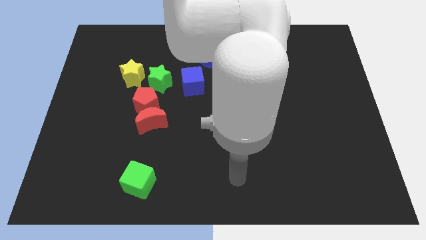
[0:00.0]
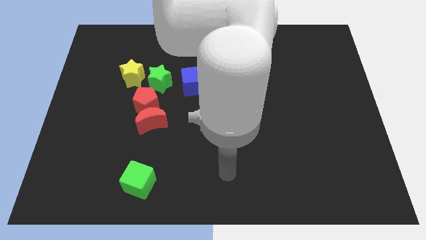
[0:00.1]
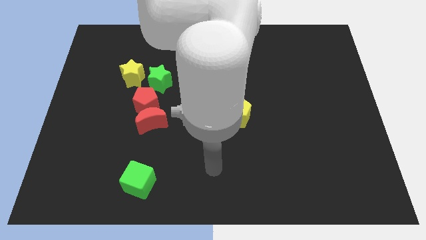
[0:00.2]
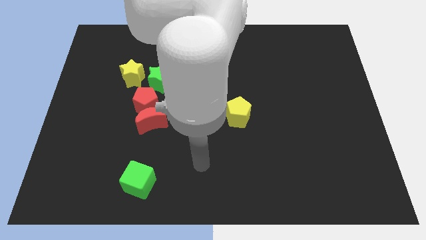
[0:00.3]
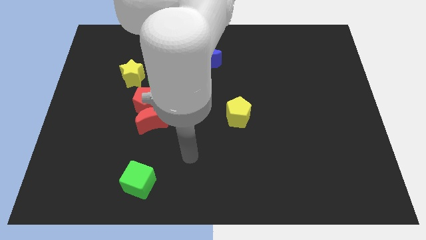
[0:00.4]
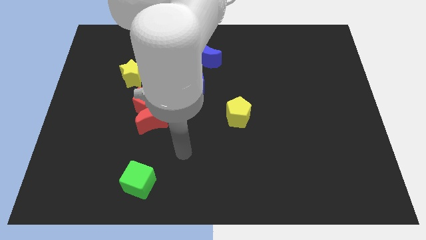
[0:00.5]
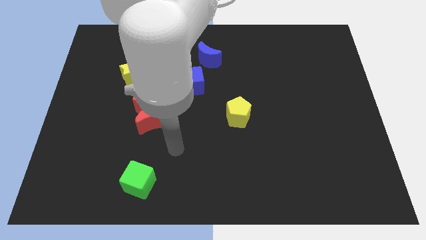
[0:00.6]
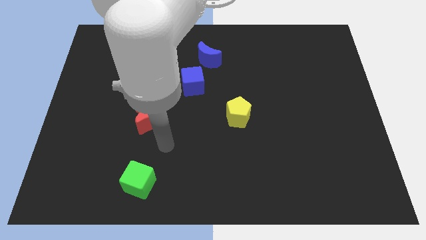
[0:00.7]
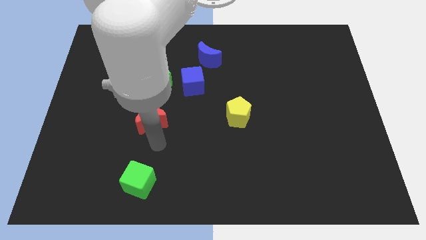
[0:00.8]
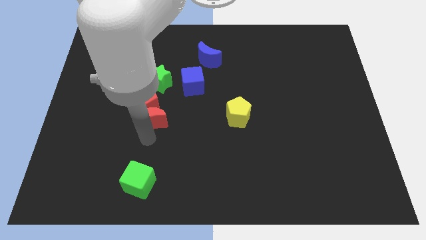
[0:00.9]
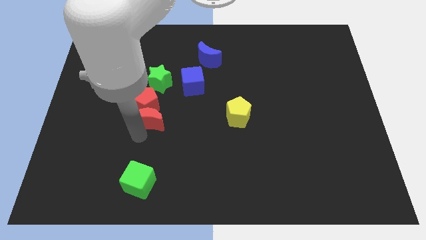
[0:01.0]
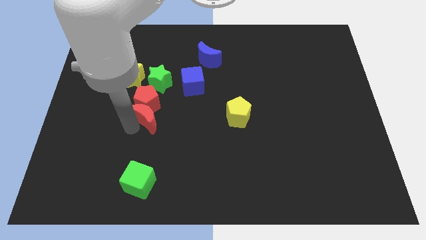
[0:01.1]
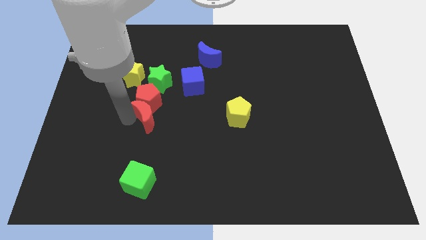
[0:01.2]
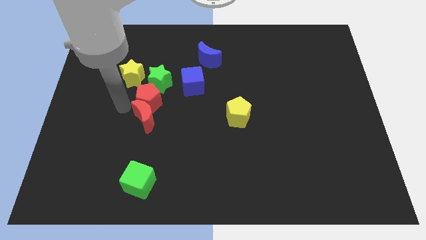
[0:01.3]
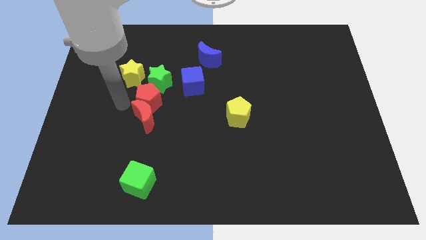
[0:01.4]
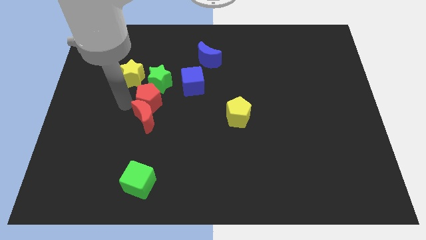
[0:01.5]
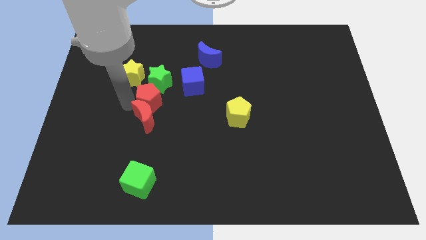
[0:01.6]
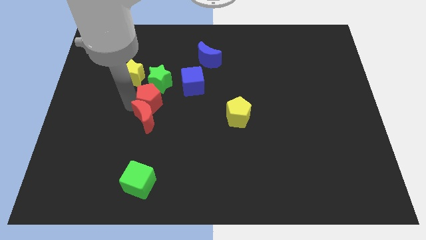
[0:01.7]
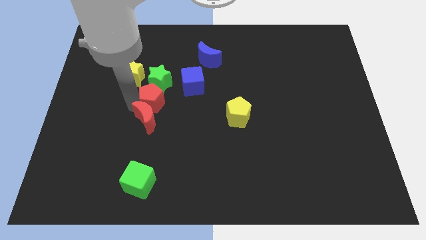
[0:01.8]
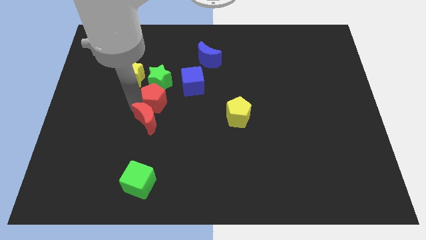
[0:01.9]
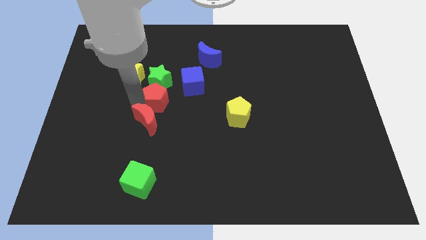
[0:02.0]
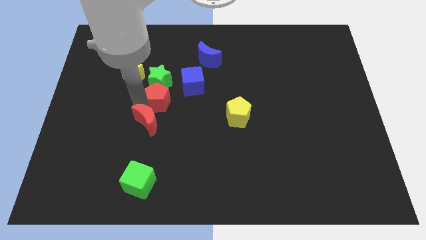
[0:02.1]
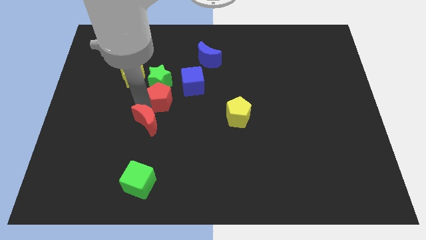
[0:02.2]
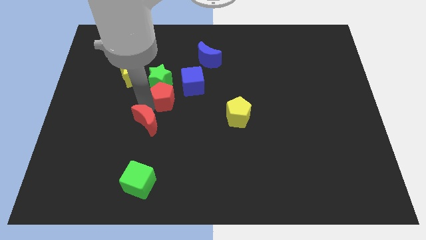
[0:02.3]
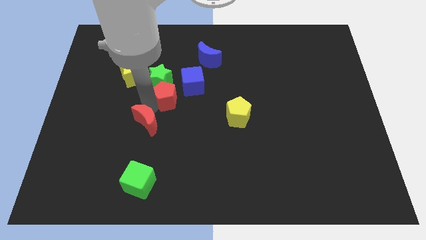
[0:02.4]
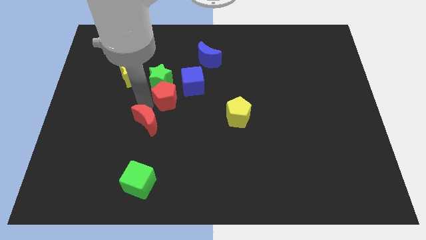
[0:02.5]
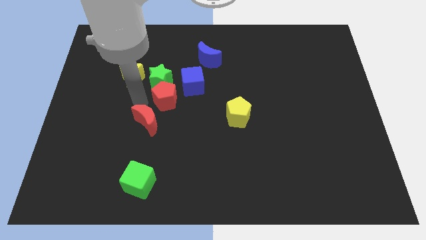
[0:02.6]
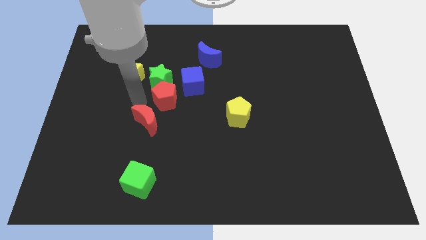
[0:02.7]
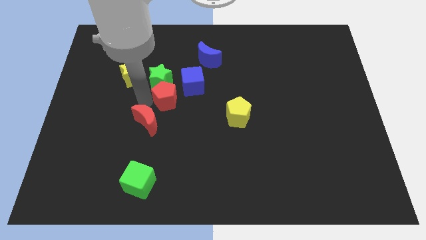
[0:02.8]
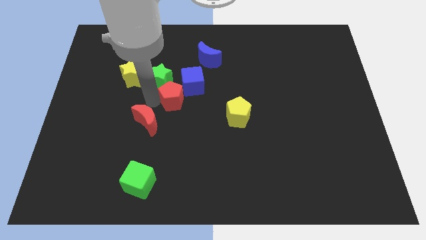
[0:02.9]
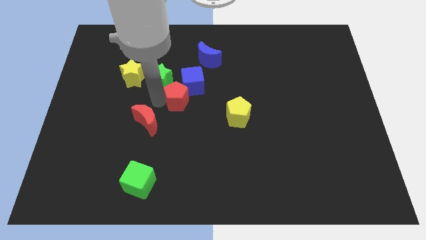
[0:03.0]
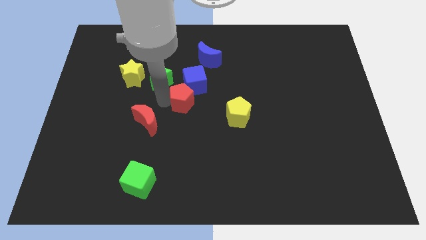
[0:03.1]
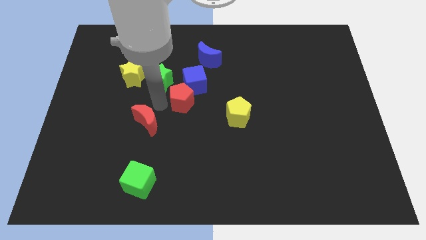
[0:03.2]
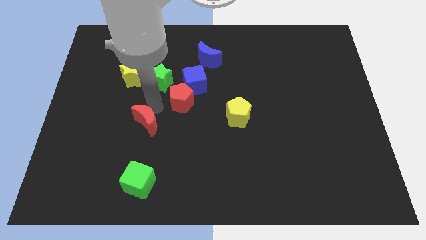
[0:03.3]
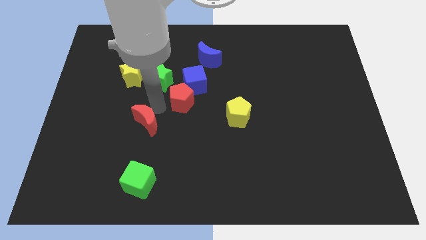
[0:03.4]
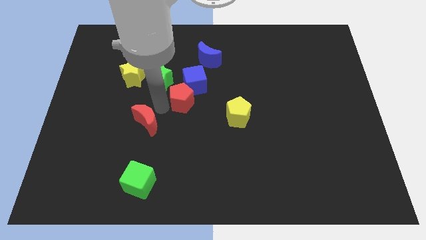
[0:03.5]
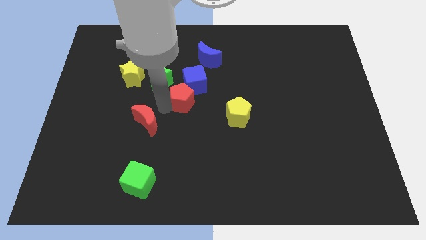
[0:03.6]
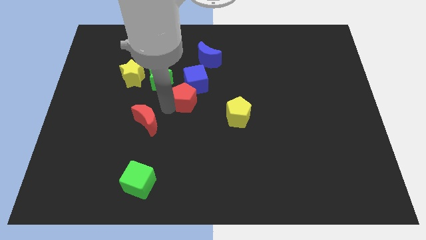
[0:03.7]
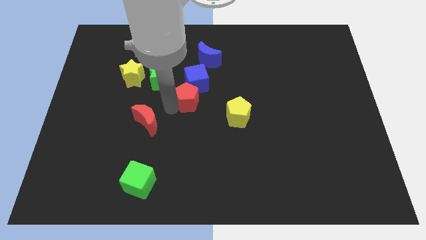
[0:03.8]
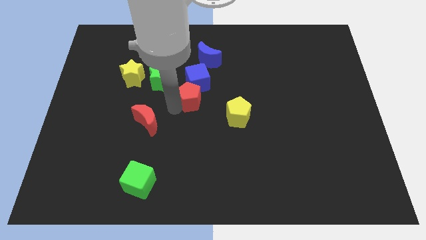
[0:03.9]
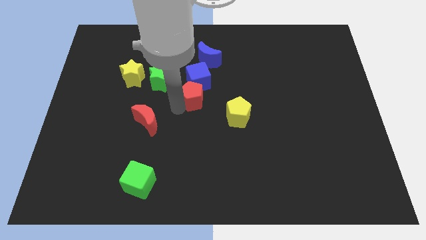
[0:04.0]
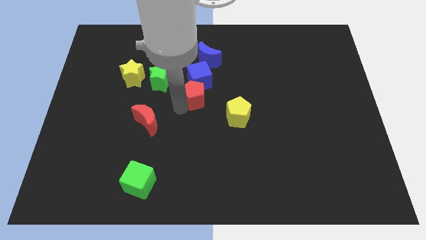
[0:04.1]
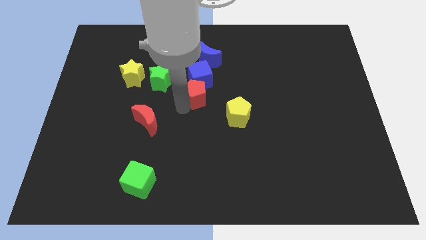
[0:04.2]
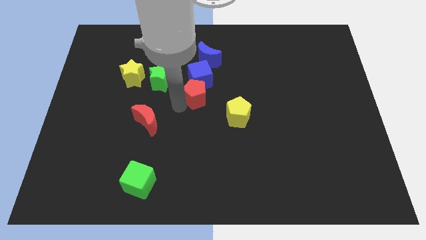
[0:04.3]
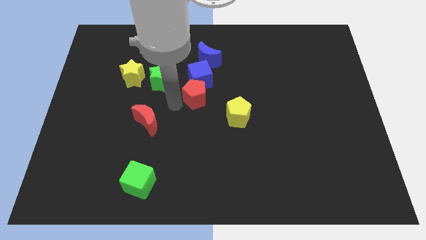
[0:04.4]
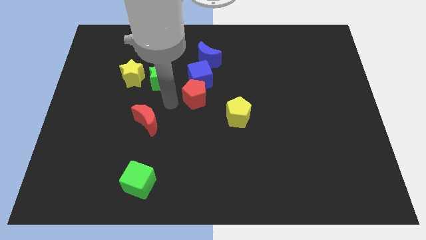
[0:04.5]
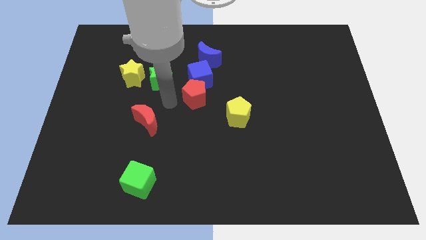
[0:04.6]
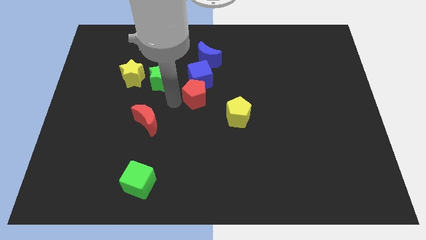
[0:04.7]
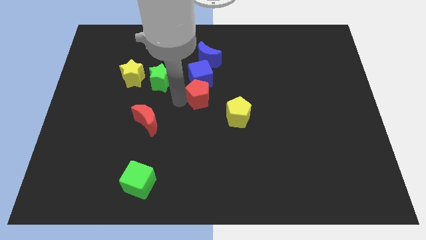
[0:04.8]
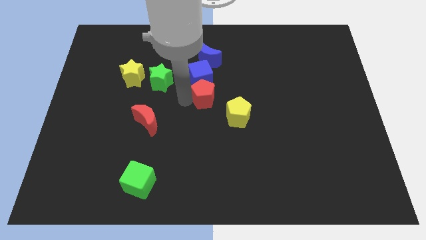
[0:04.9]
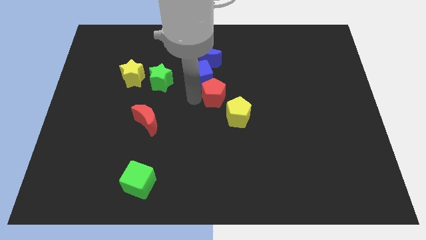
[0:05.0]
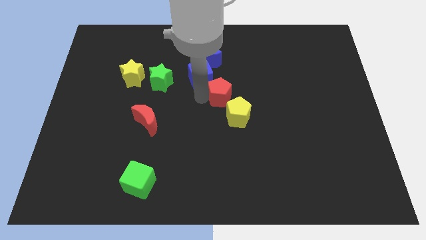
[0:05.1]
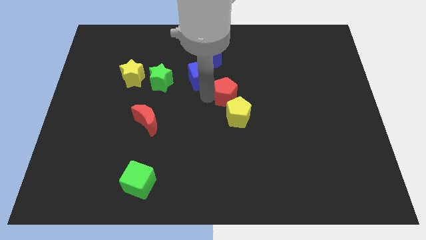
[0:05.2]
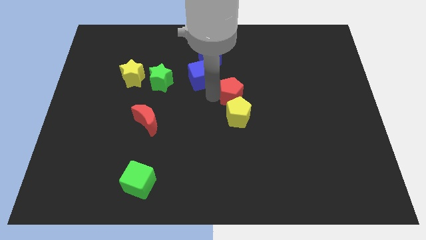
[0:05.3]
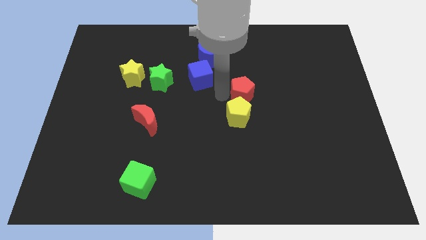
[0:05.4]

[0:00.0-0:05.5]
push the red pentagon right

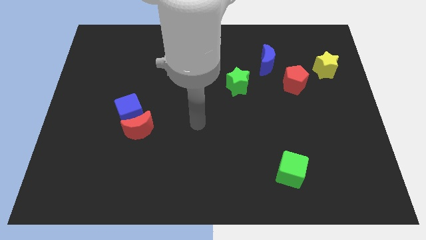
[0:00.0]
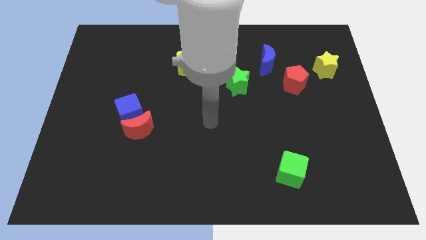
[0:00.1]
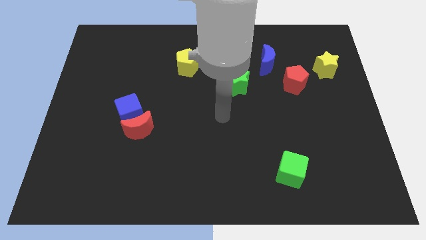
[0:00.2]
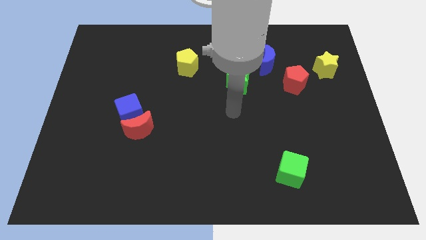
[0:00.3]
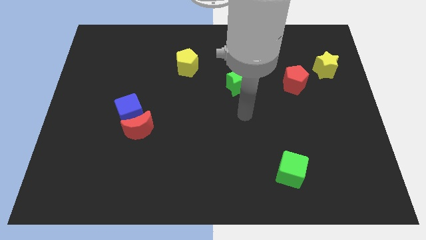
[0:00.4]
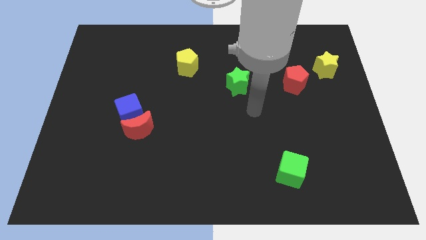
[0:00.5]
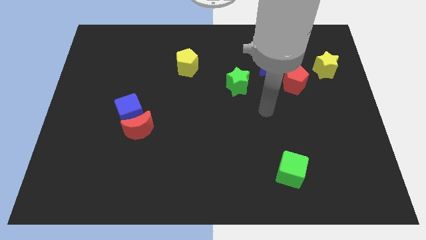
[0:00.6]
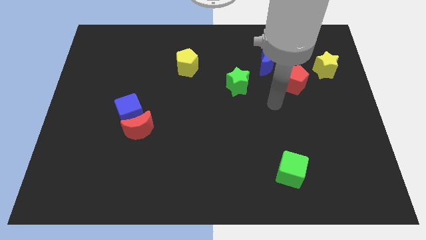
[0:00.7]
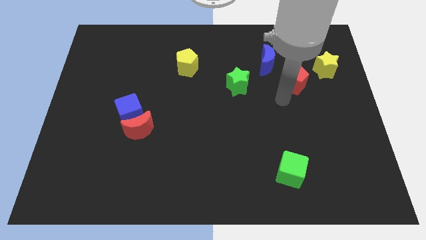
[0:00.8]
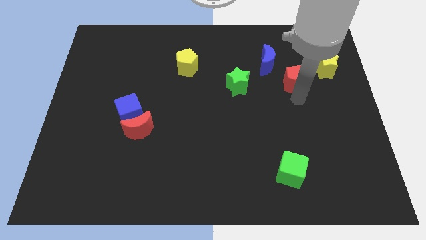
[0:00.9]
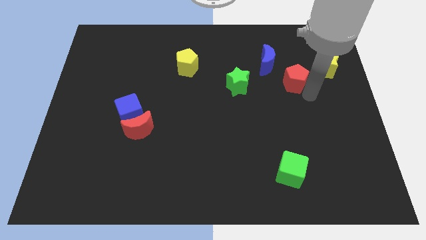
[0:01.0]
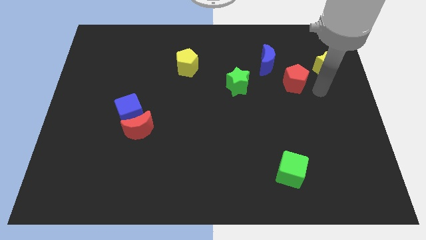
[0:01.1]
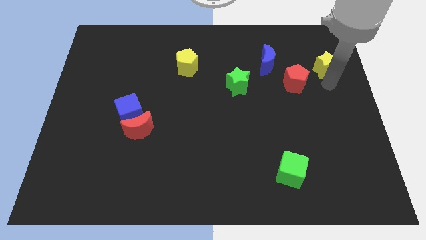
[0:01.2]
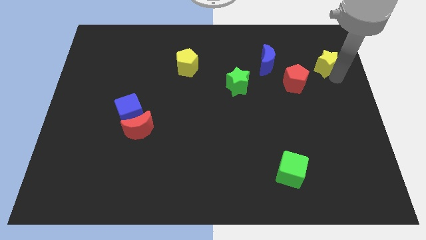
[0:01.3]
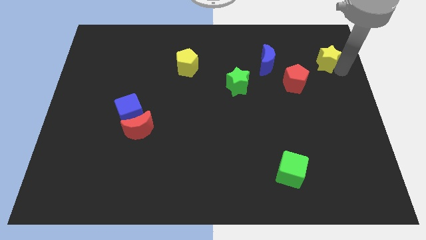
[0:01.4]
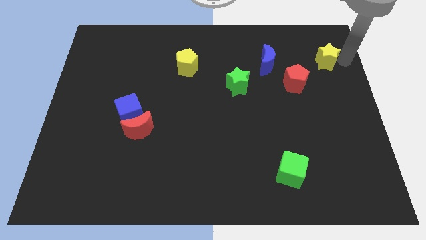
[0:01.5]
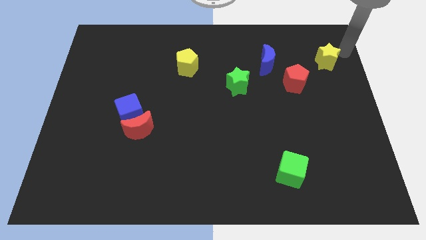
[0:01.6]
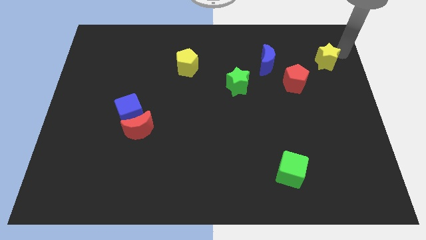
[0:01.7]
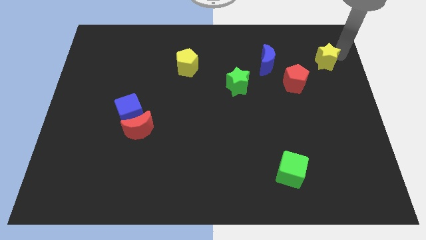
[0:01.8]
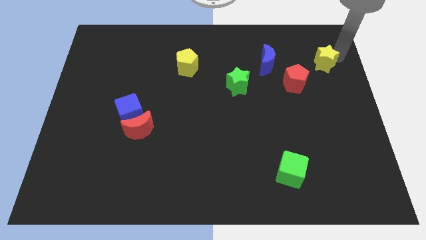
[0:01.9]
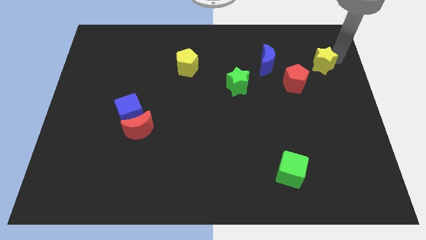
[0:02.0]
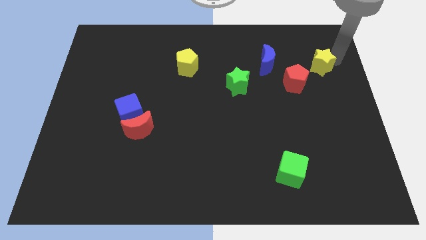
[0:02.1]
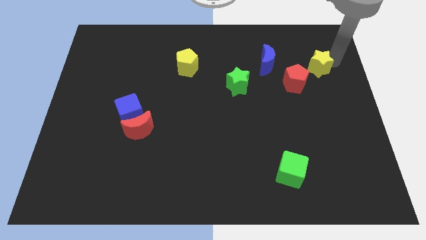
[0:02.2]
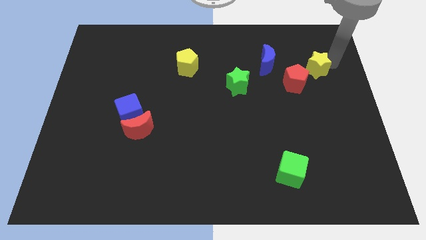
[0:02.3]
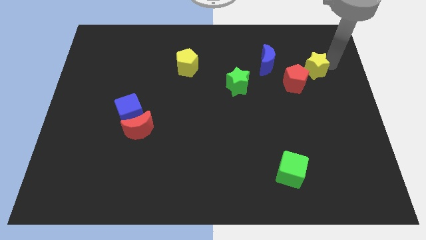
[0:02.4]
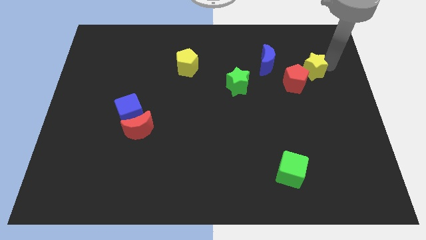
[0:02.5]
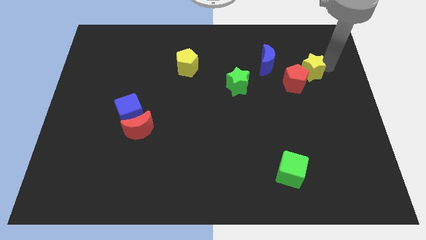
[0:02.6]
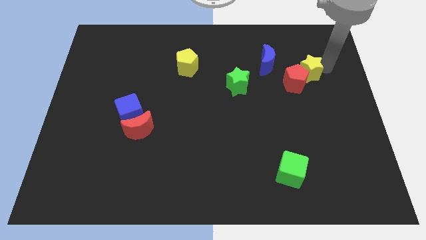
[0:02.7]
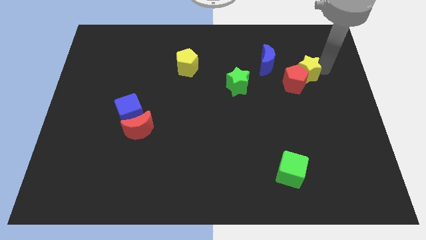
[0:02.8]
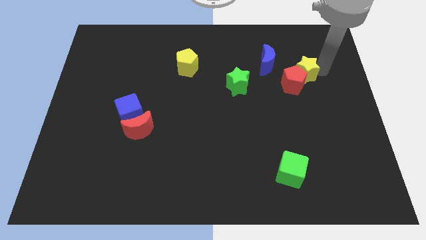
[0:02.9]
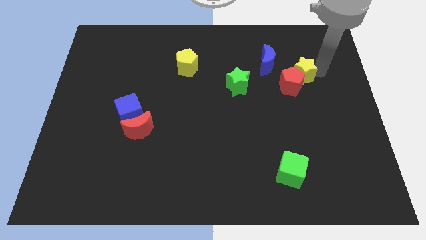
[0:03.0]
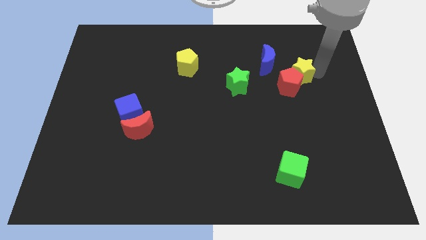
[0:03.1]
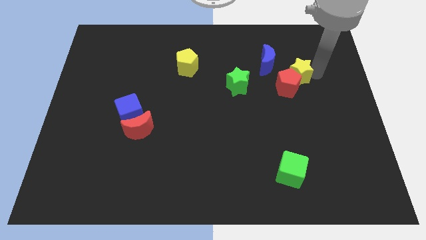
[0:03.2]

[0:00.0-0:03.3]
push the yellow star to the left slightly
